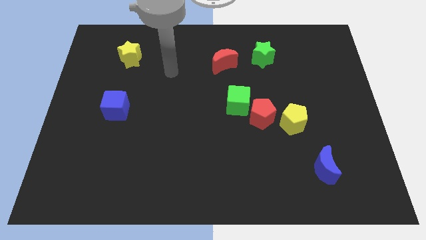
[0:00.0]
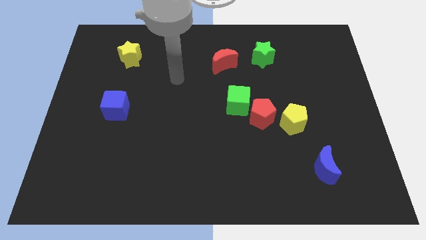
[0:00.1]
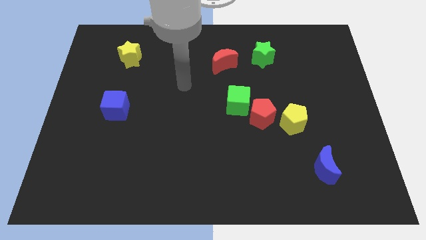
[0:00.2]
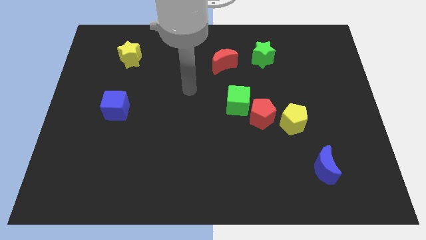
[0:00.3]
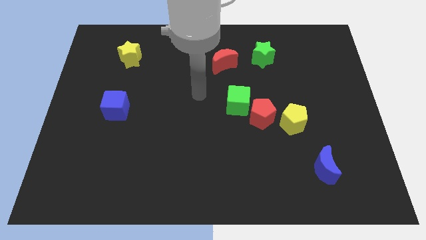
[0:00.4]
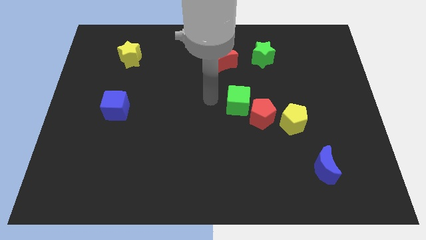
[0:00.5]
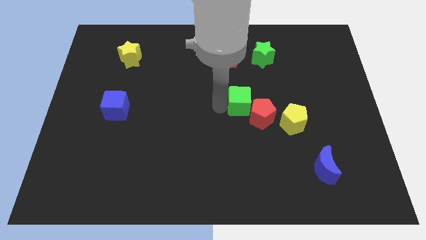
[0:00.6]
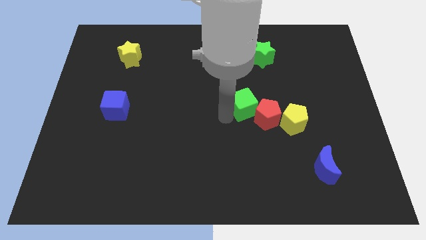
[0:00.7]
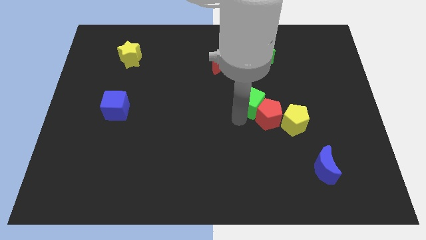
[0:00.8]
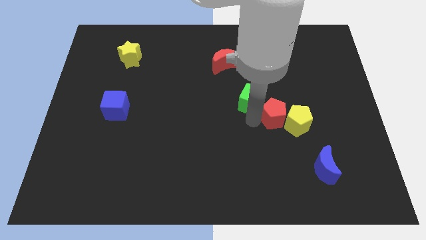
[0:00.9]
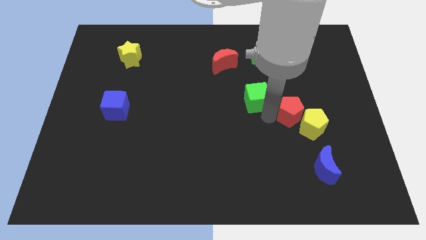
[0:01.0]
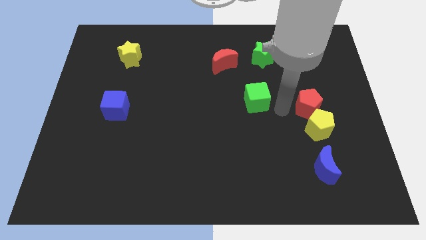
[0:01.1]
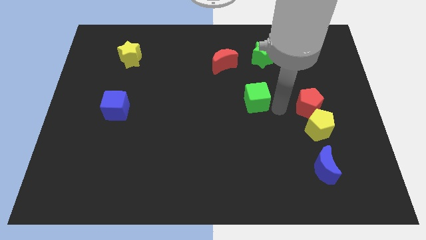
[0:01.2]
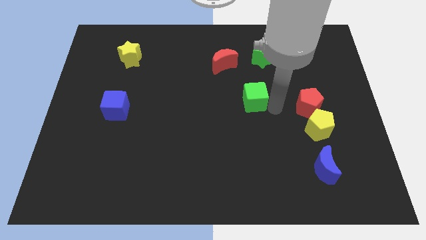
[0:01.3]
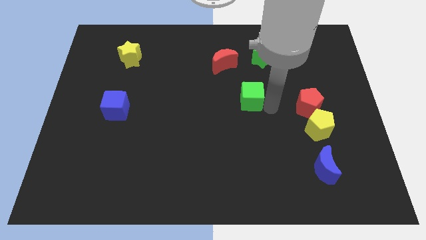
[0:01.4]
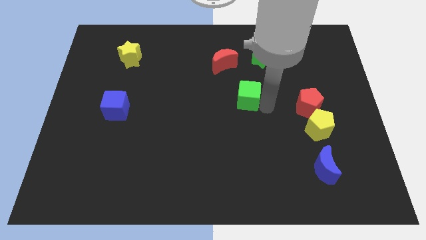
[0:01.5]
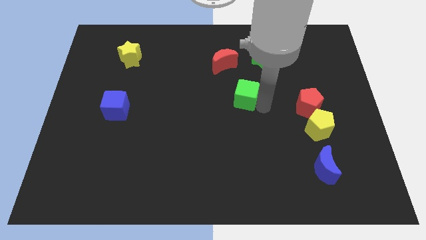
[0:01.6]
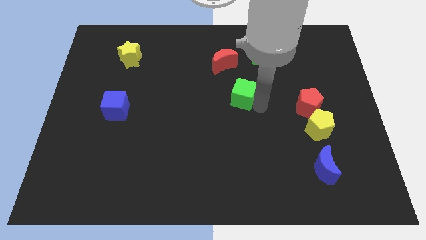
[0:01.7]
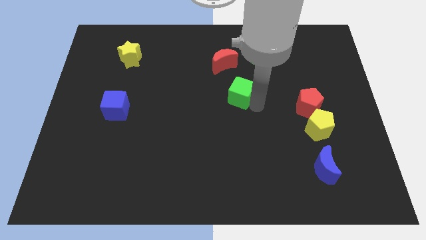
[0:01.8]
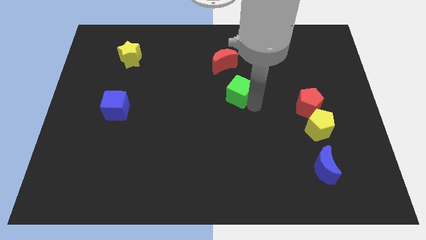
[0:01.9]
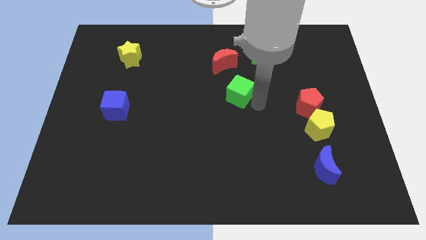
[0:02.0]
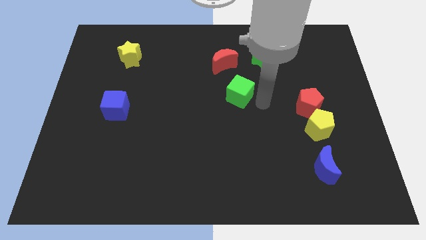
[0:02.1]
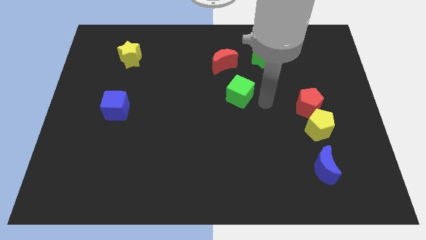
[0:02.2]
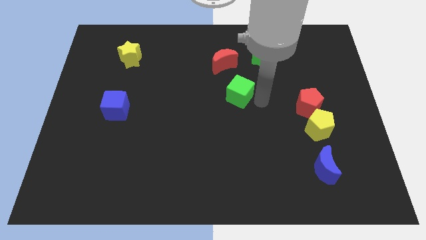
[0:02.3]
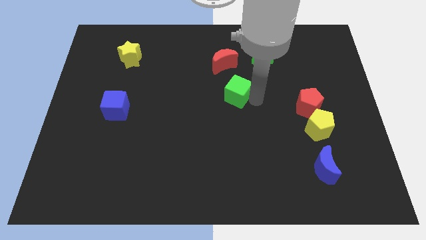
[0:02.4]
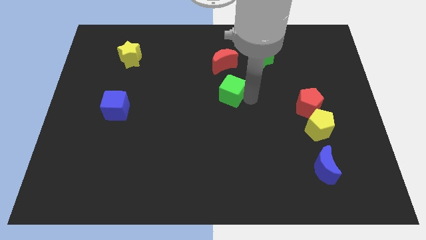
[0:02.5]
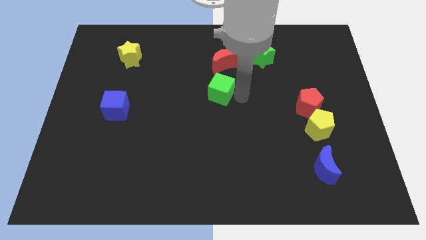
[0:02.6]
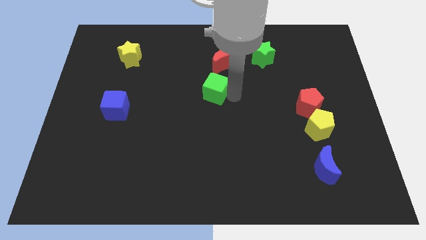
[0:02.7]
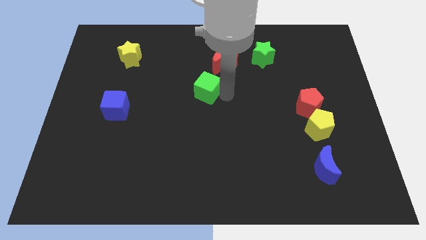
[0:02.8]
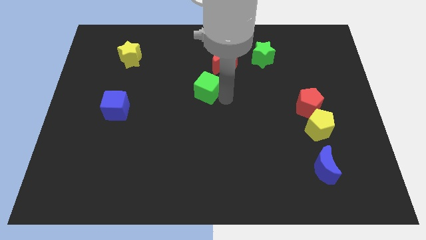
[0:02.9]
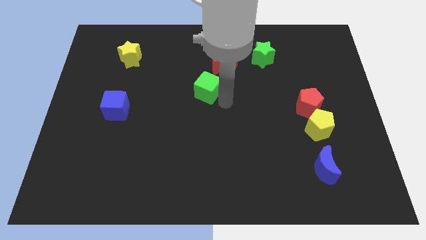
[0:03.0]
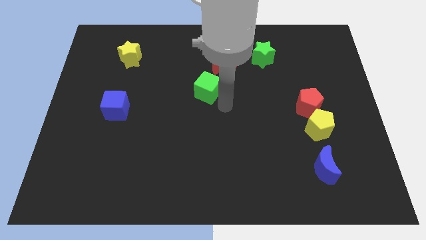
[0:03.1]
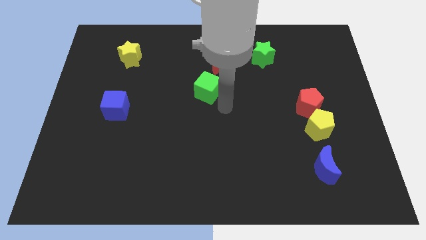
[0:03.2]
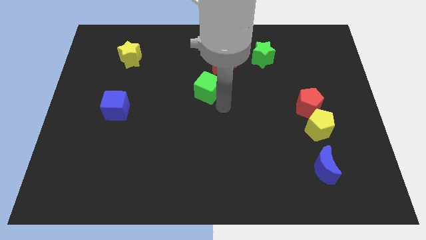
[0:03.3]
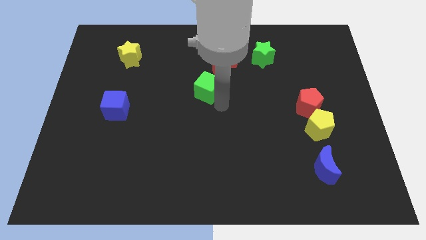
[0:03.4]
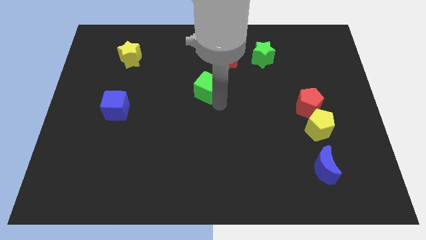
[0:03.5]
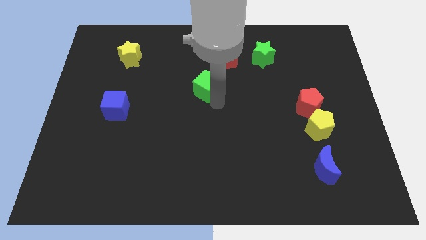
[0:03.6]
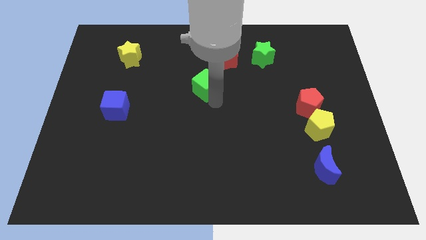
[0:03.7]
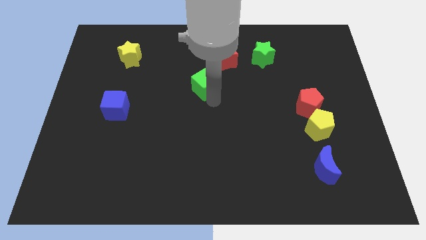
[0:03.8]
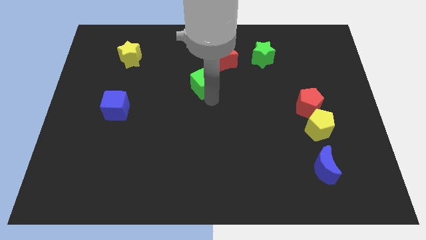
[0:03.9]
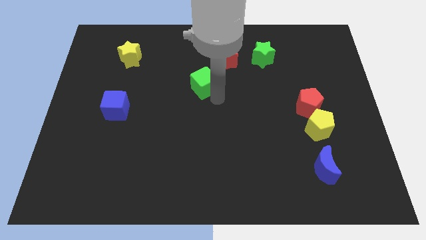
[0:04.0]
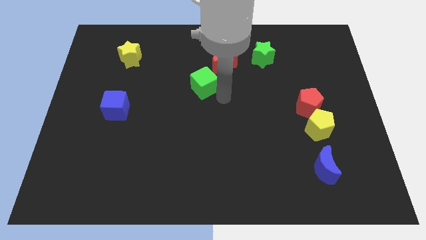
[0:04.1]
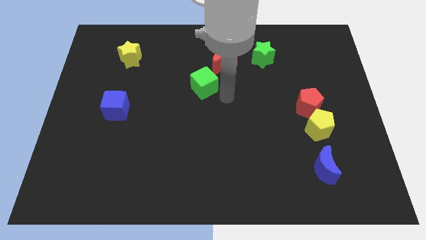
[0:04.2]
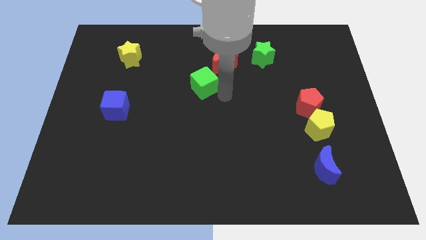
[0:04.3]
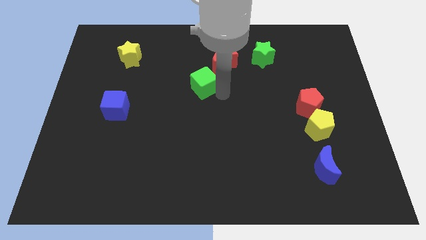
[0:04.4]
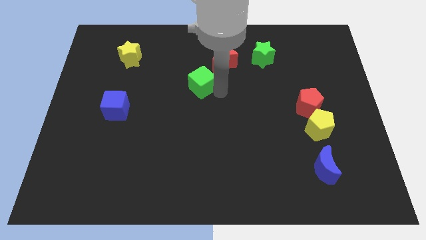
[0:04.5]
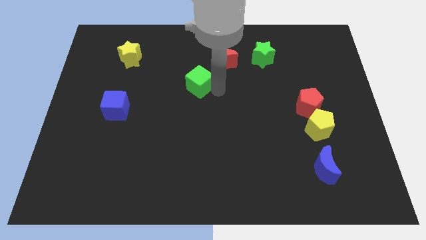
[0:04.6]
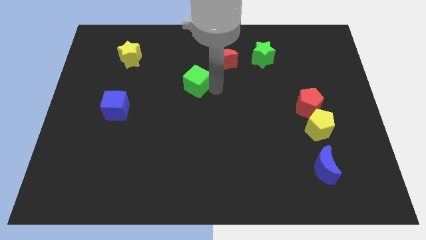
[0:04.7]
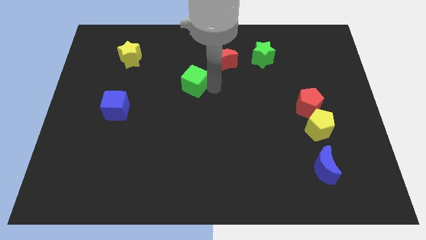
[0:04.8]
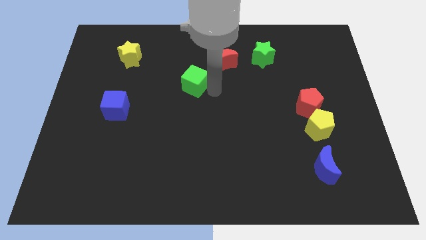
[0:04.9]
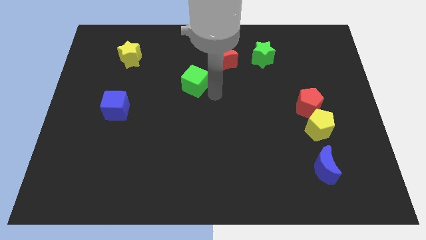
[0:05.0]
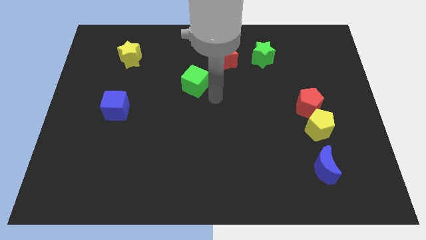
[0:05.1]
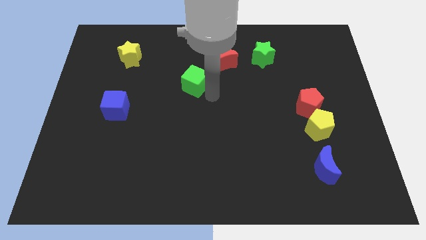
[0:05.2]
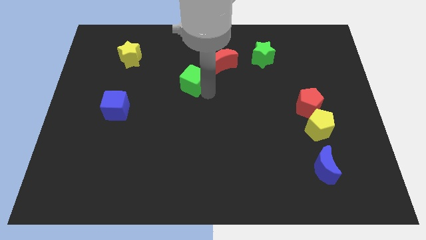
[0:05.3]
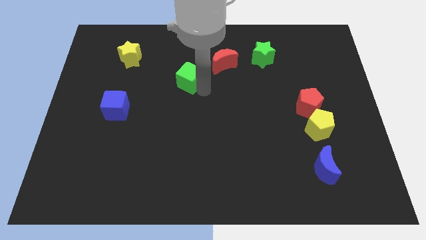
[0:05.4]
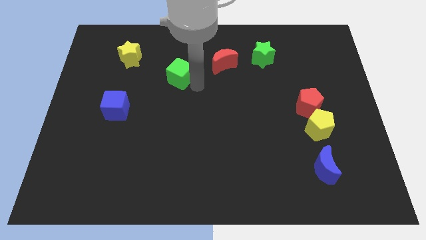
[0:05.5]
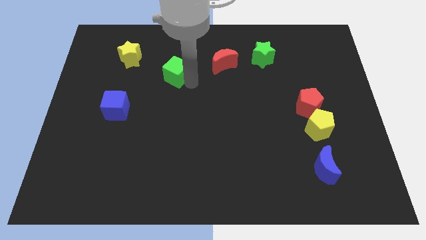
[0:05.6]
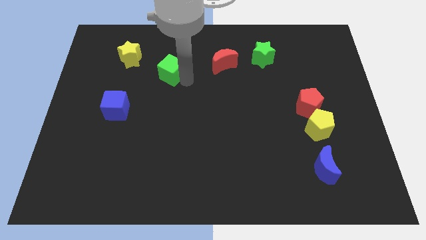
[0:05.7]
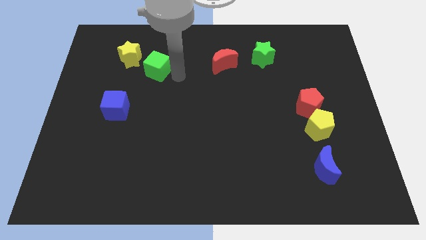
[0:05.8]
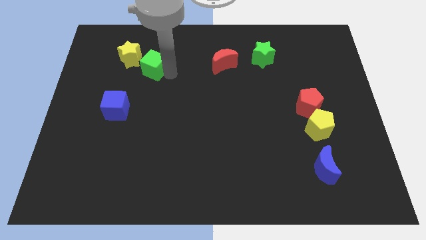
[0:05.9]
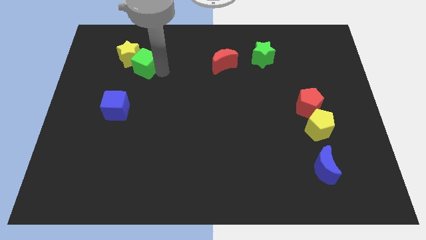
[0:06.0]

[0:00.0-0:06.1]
move the green cube to the yellow star

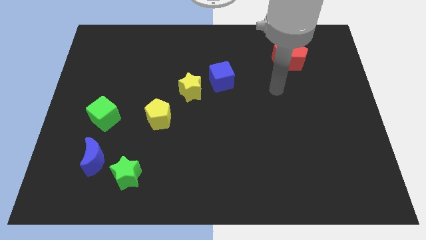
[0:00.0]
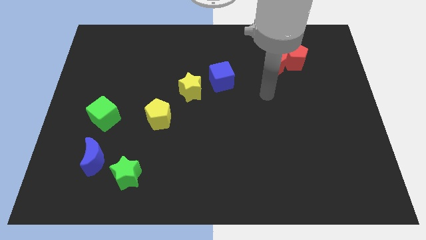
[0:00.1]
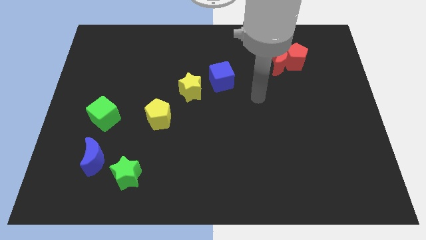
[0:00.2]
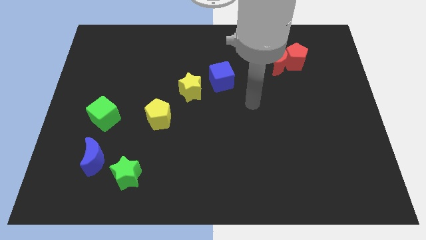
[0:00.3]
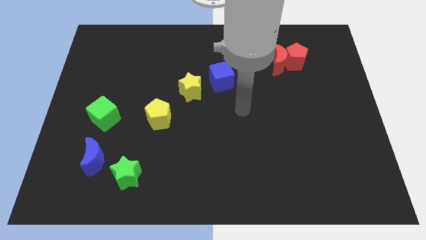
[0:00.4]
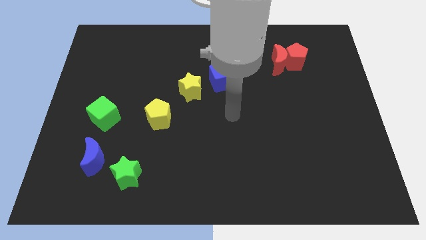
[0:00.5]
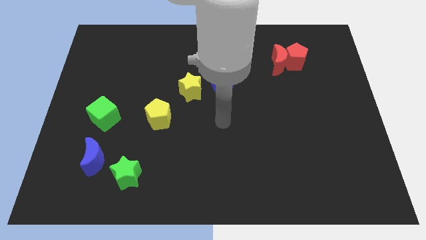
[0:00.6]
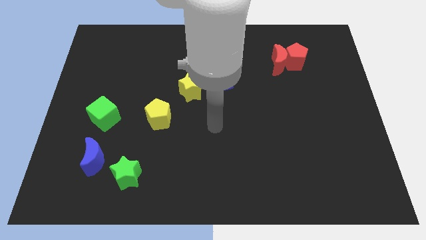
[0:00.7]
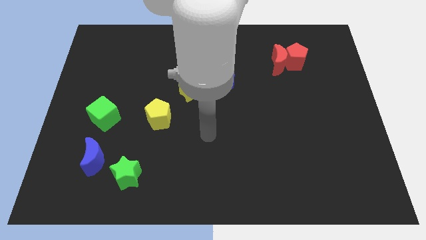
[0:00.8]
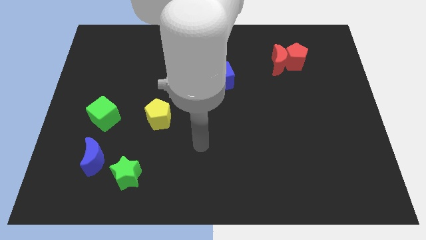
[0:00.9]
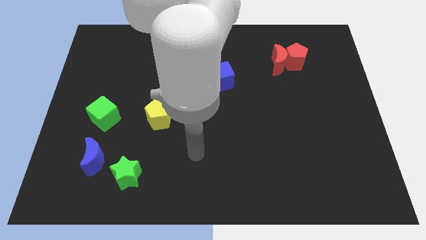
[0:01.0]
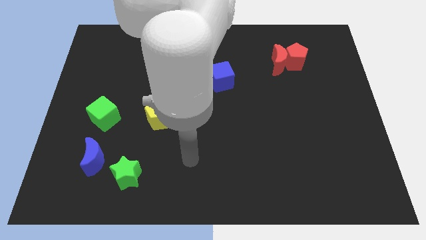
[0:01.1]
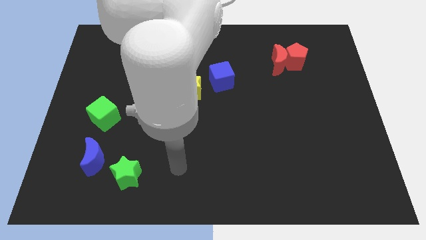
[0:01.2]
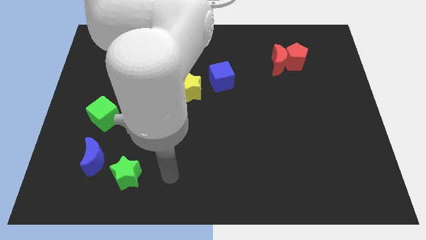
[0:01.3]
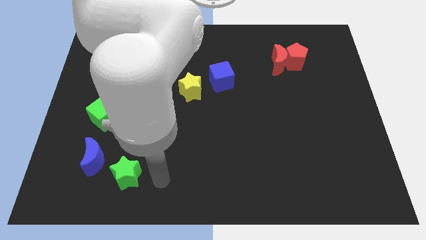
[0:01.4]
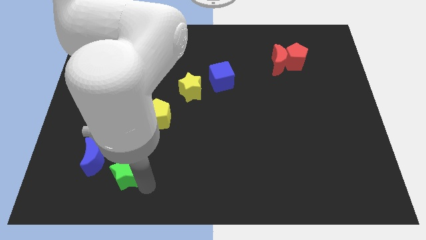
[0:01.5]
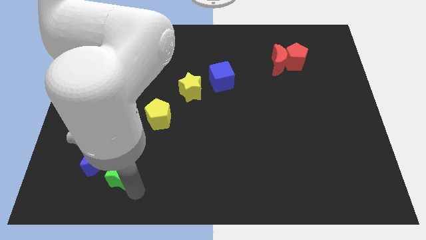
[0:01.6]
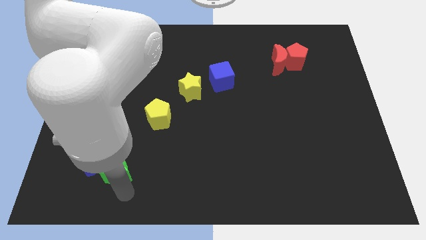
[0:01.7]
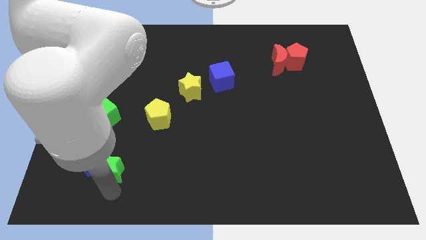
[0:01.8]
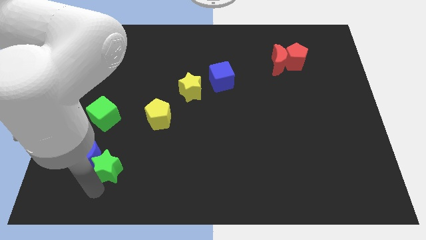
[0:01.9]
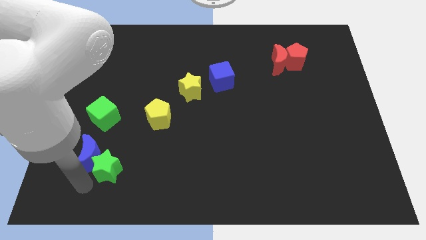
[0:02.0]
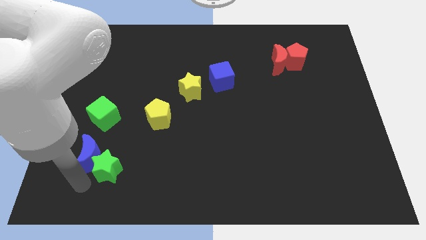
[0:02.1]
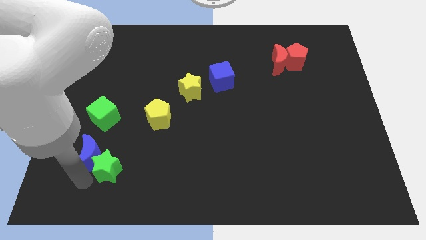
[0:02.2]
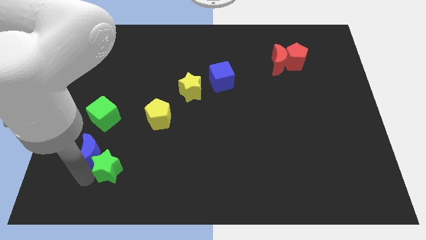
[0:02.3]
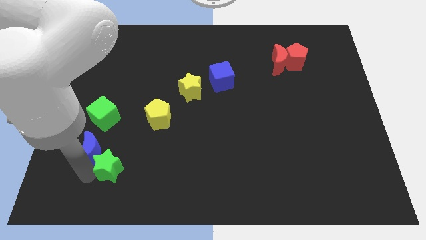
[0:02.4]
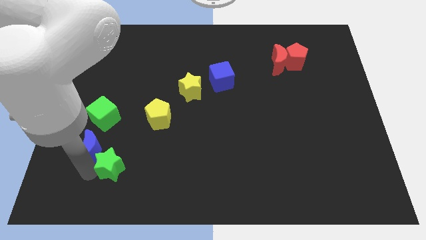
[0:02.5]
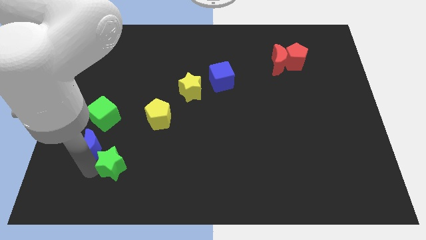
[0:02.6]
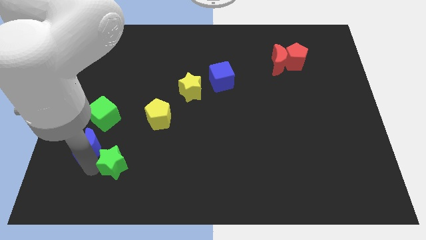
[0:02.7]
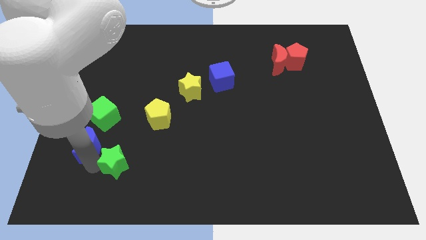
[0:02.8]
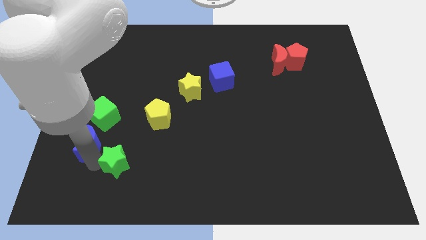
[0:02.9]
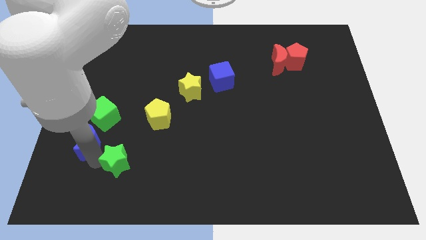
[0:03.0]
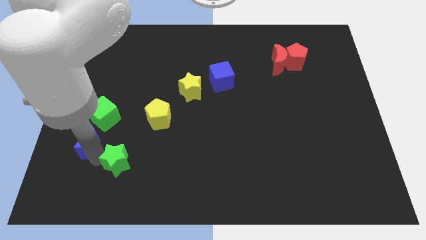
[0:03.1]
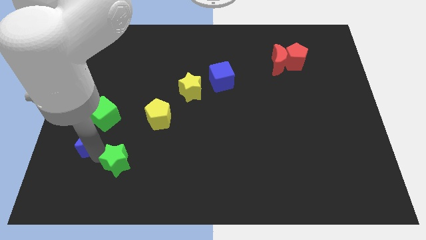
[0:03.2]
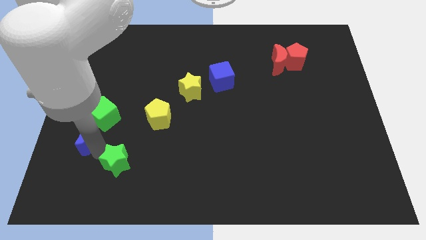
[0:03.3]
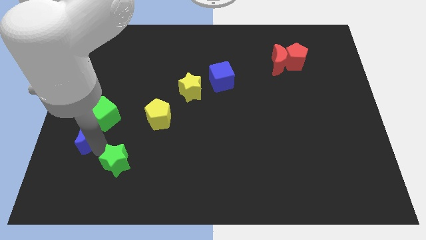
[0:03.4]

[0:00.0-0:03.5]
put the blue moon close to the green cube
